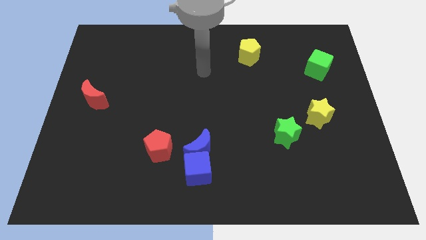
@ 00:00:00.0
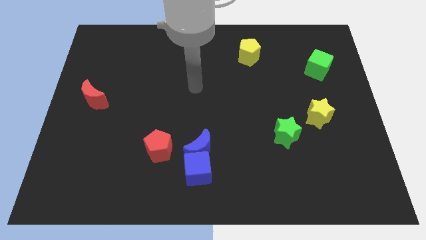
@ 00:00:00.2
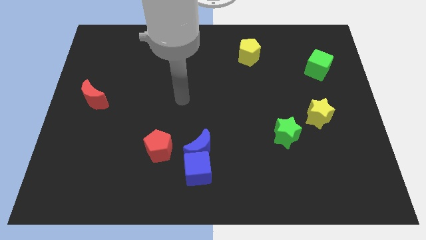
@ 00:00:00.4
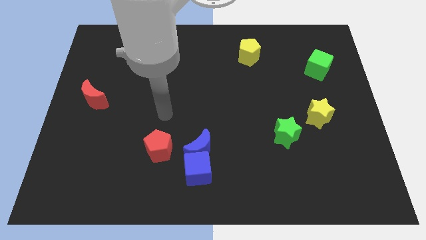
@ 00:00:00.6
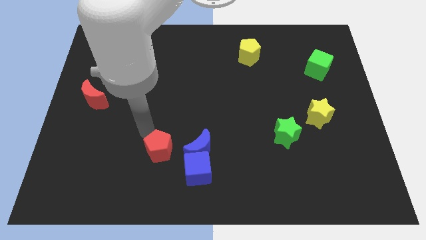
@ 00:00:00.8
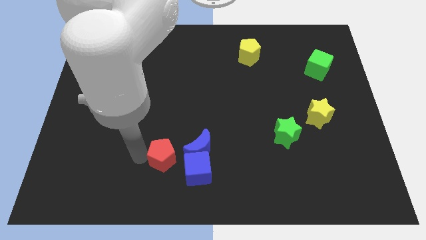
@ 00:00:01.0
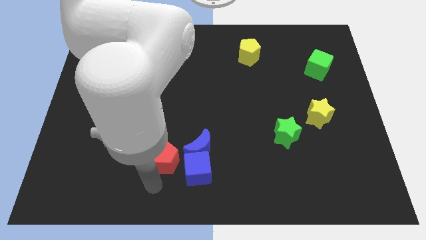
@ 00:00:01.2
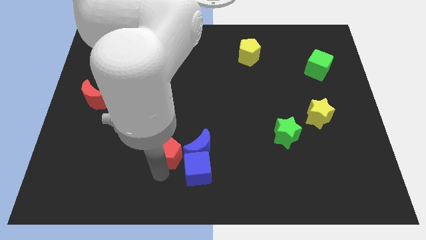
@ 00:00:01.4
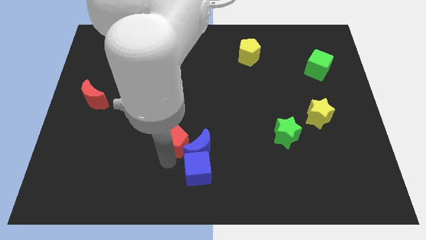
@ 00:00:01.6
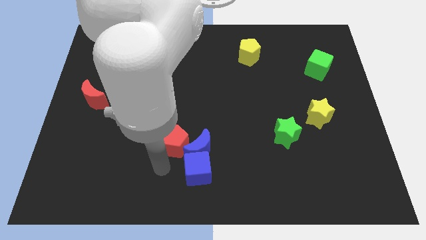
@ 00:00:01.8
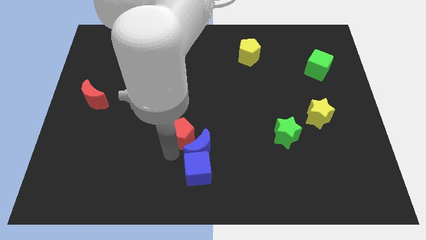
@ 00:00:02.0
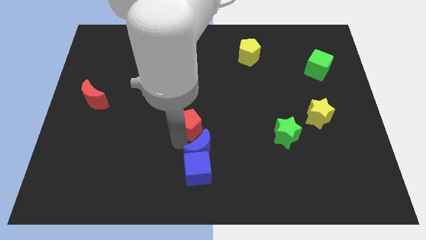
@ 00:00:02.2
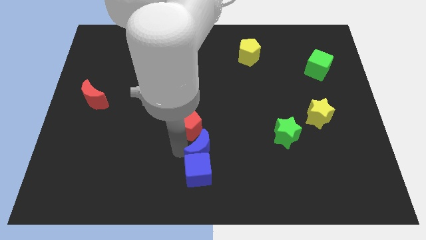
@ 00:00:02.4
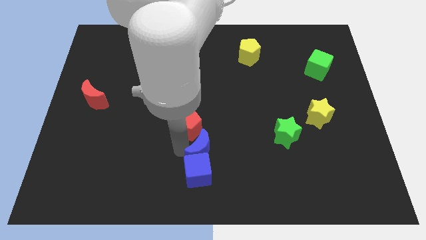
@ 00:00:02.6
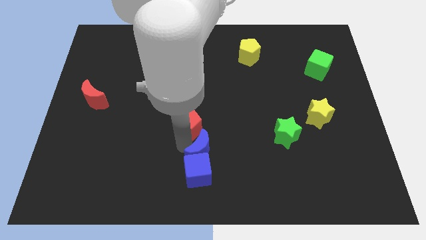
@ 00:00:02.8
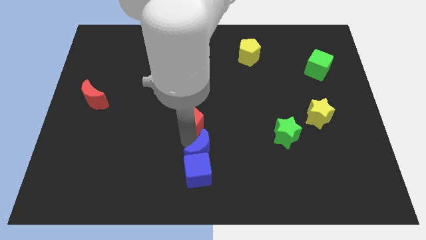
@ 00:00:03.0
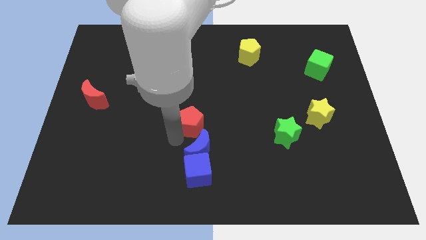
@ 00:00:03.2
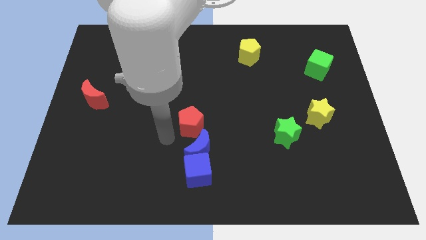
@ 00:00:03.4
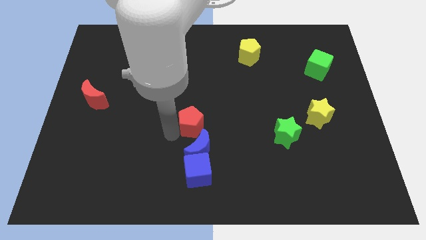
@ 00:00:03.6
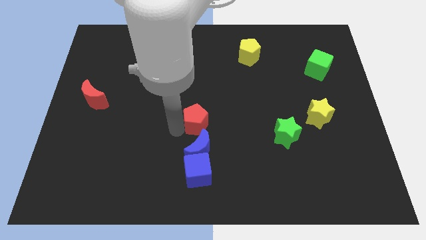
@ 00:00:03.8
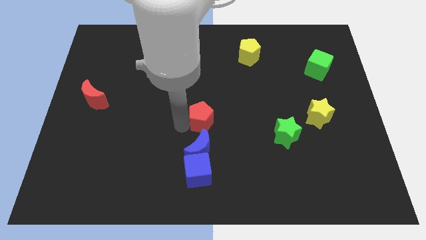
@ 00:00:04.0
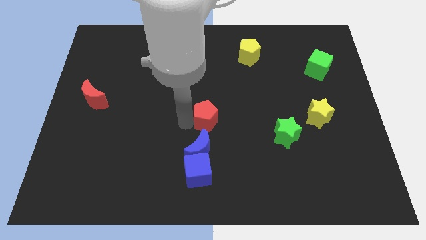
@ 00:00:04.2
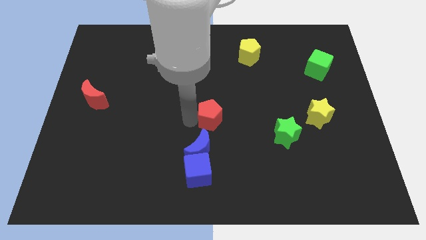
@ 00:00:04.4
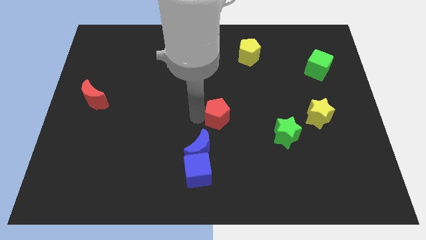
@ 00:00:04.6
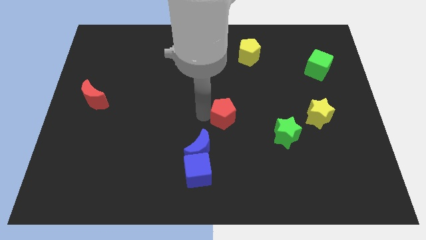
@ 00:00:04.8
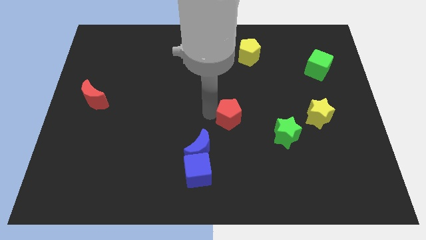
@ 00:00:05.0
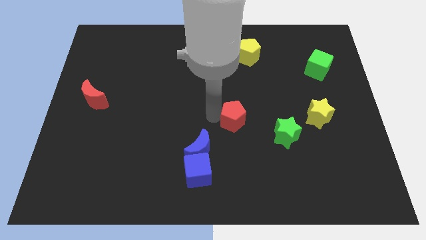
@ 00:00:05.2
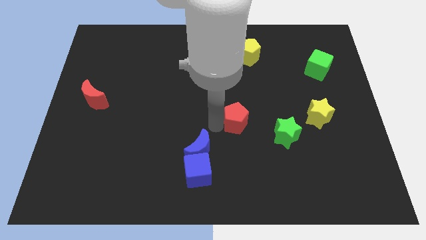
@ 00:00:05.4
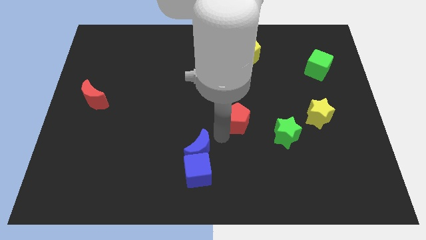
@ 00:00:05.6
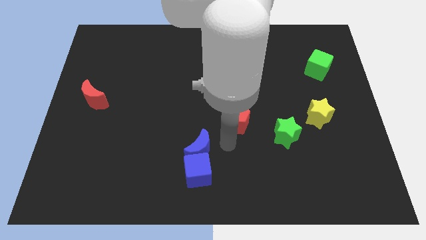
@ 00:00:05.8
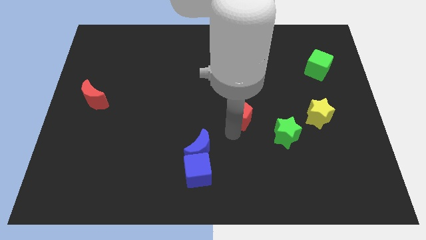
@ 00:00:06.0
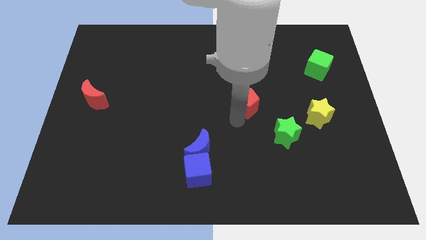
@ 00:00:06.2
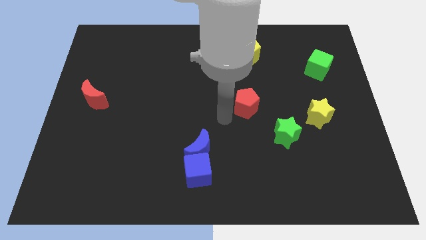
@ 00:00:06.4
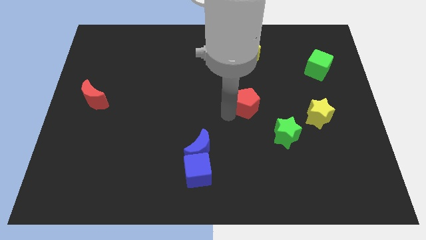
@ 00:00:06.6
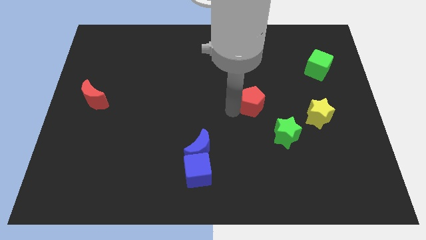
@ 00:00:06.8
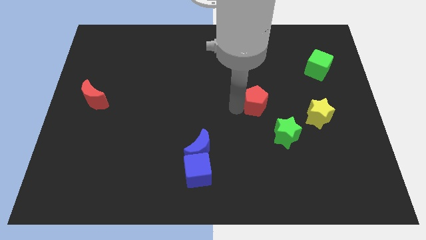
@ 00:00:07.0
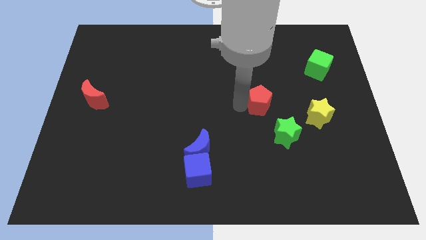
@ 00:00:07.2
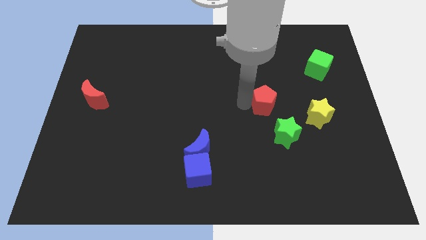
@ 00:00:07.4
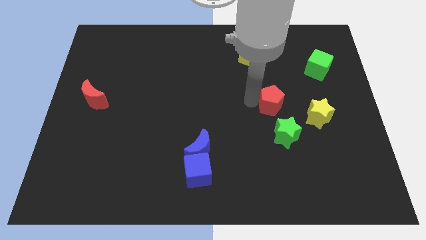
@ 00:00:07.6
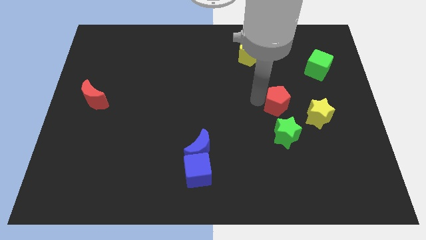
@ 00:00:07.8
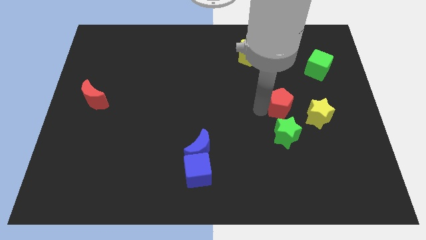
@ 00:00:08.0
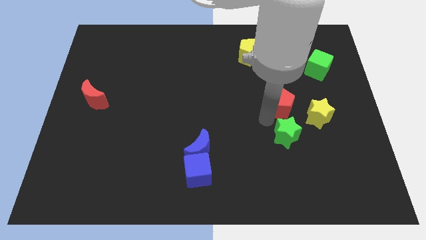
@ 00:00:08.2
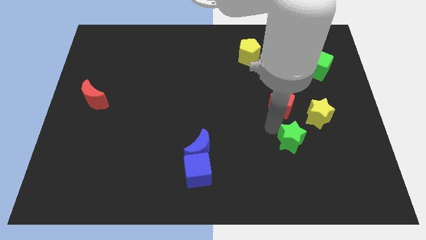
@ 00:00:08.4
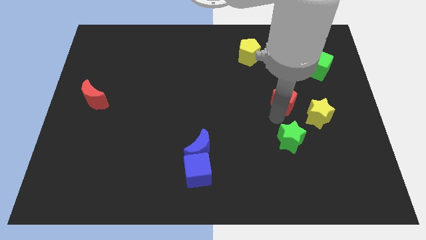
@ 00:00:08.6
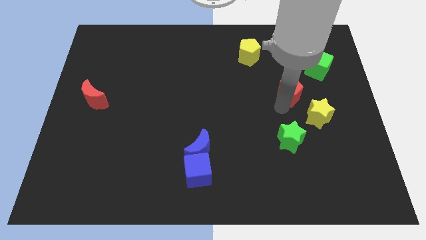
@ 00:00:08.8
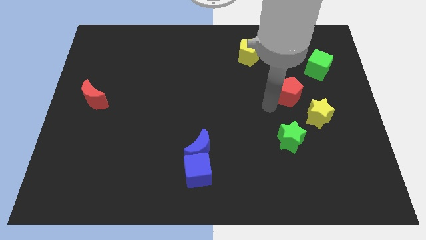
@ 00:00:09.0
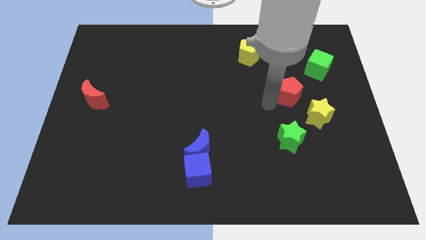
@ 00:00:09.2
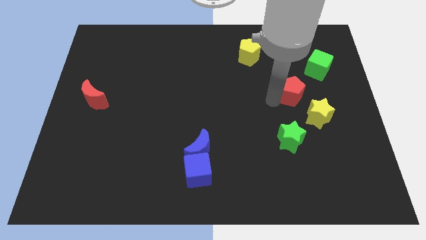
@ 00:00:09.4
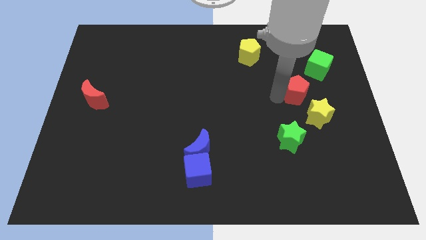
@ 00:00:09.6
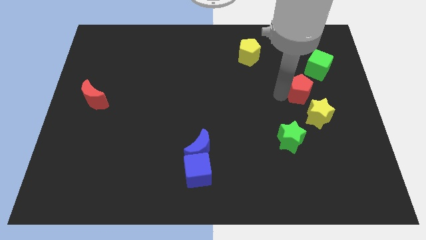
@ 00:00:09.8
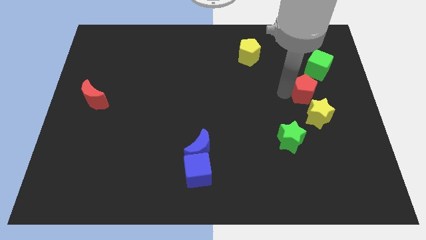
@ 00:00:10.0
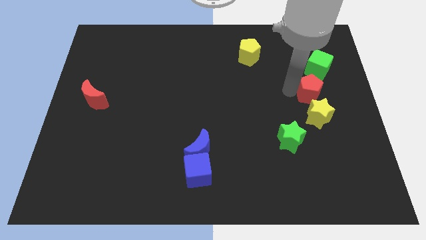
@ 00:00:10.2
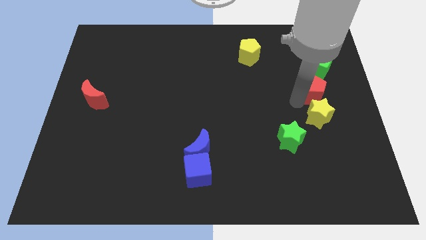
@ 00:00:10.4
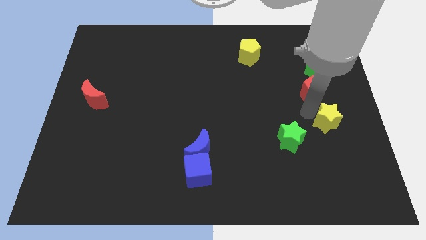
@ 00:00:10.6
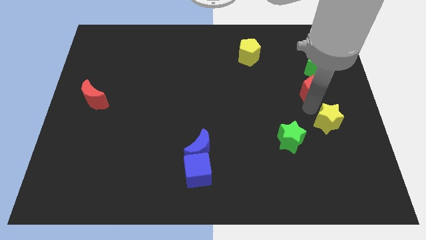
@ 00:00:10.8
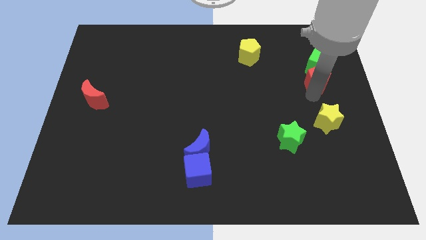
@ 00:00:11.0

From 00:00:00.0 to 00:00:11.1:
move the red pentagon close to the green cube

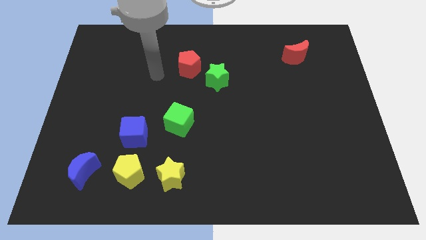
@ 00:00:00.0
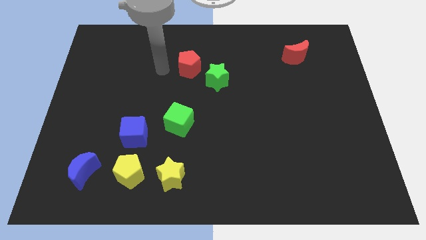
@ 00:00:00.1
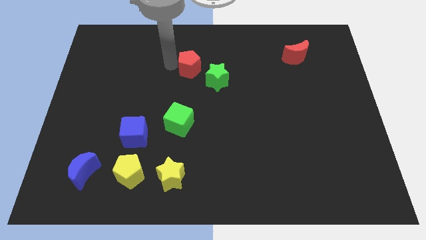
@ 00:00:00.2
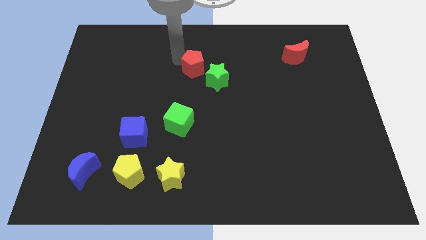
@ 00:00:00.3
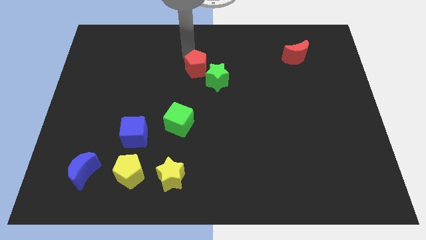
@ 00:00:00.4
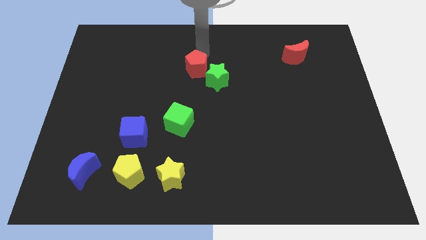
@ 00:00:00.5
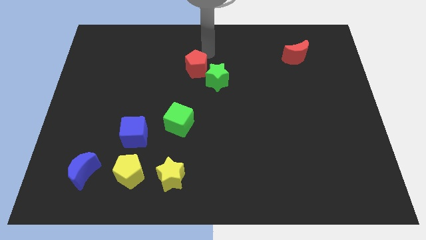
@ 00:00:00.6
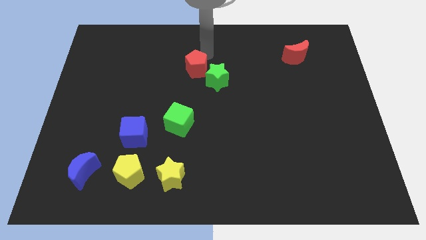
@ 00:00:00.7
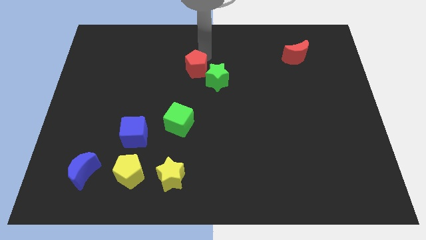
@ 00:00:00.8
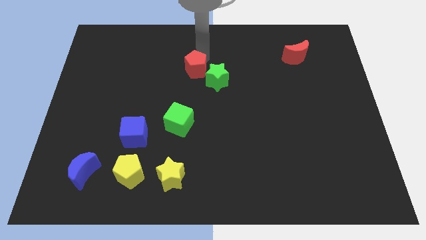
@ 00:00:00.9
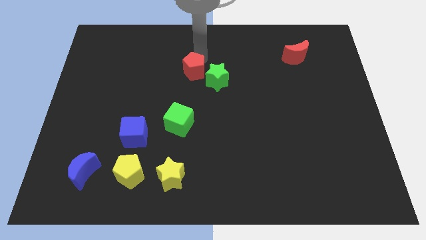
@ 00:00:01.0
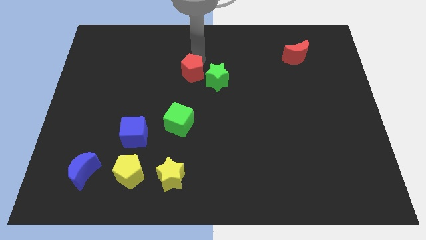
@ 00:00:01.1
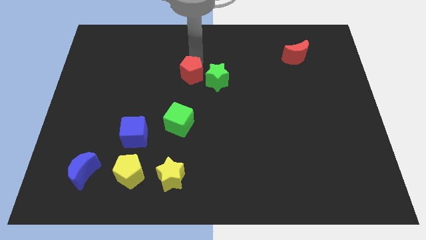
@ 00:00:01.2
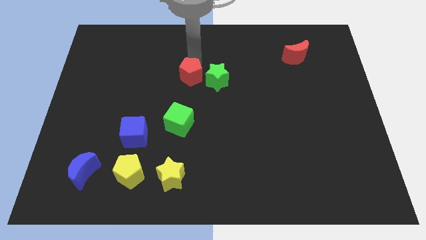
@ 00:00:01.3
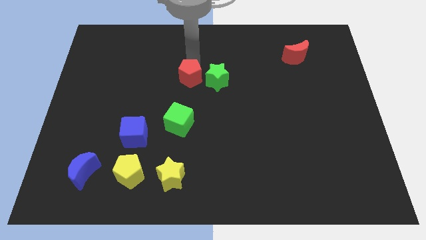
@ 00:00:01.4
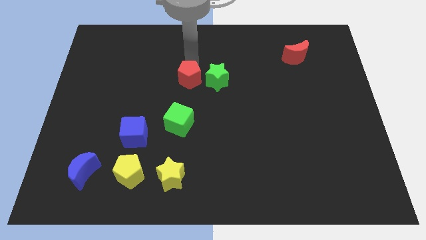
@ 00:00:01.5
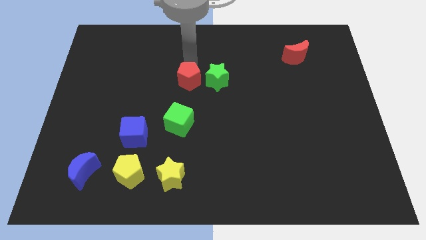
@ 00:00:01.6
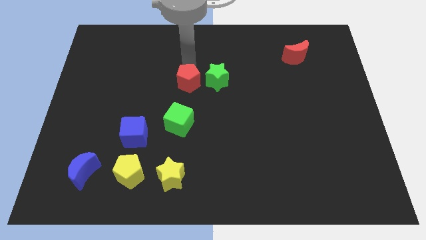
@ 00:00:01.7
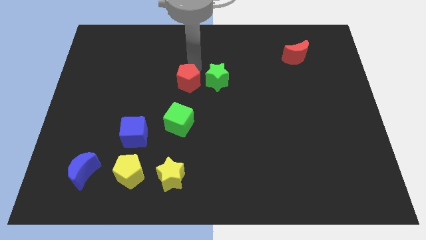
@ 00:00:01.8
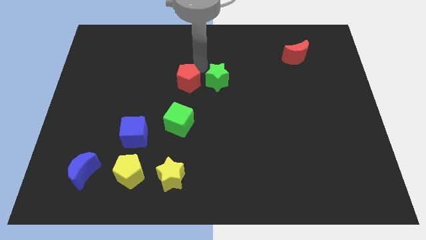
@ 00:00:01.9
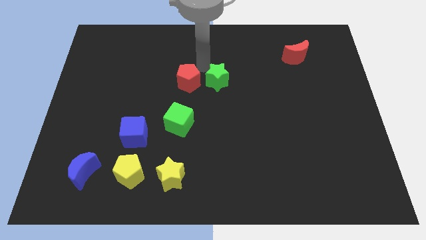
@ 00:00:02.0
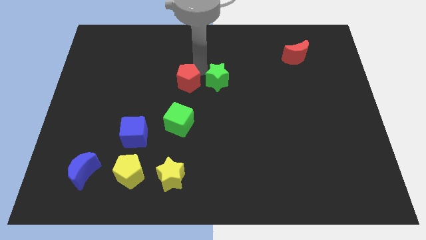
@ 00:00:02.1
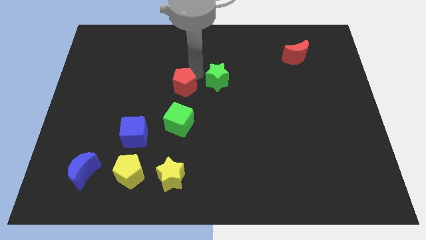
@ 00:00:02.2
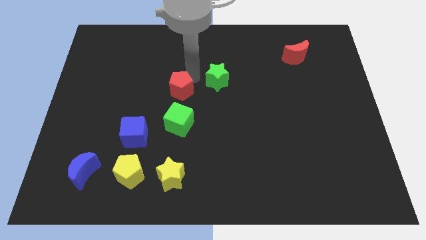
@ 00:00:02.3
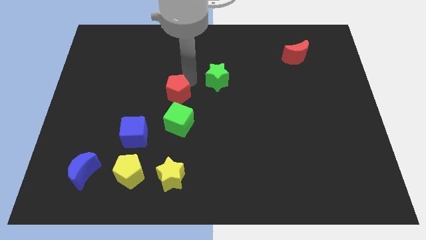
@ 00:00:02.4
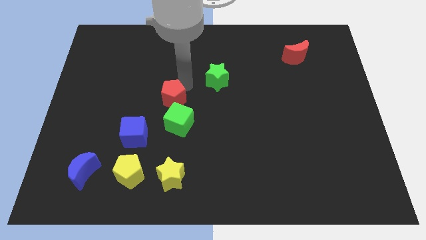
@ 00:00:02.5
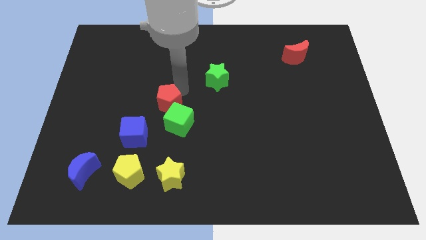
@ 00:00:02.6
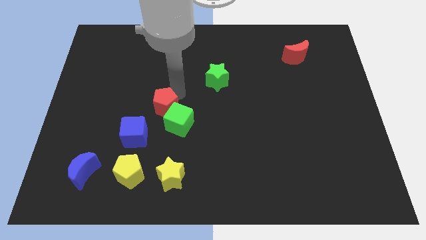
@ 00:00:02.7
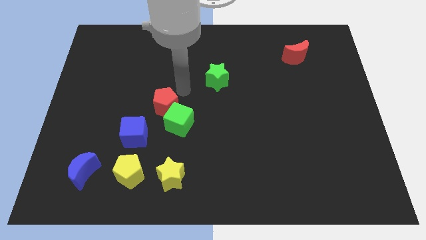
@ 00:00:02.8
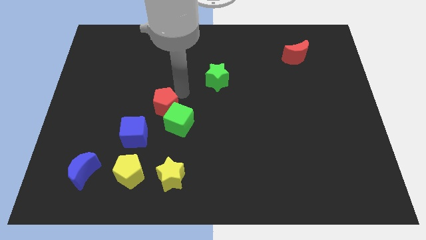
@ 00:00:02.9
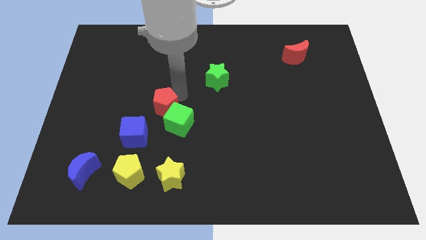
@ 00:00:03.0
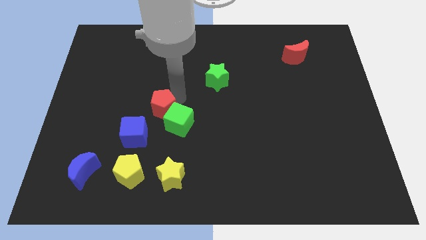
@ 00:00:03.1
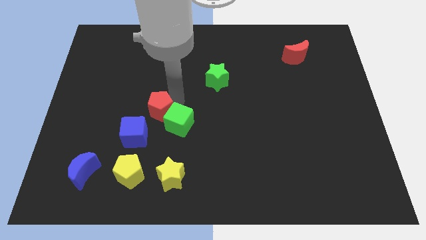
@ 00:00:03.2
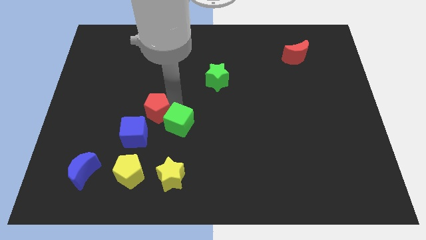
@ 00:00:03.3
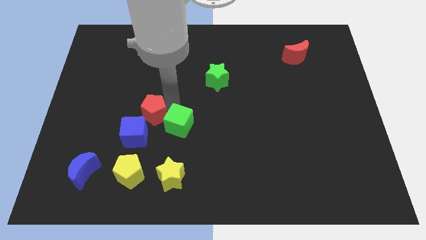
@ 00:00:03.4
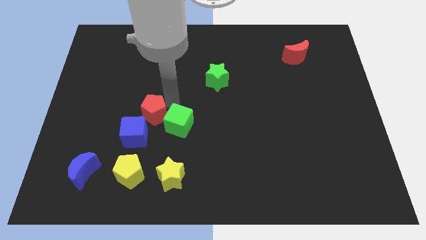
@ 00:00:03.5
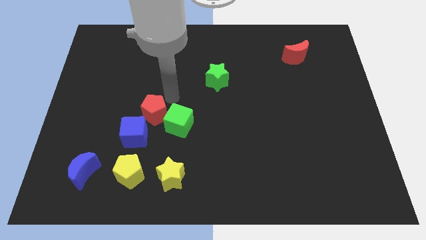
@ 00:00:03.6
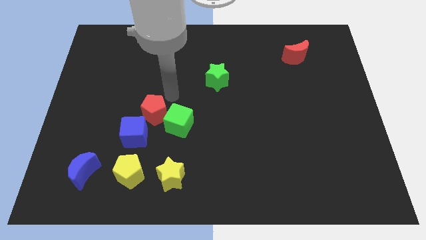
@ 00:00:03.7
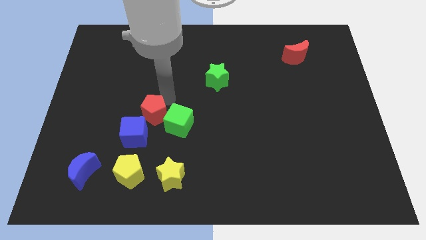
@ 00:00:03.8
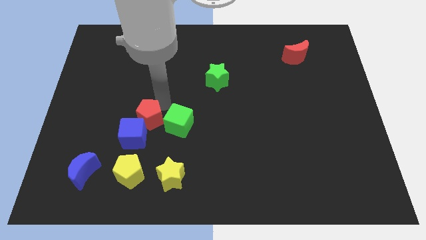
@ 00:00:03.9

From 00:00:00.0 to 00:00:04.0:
push the red pentagon towards the blue cube
